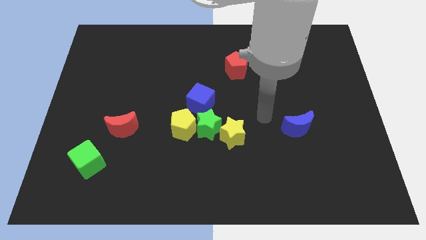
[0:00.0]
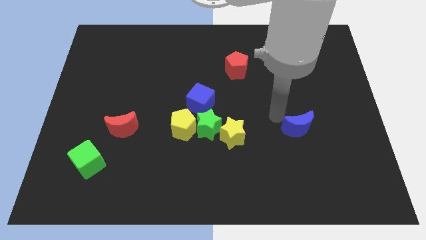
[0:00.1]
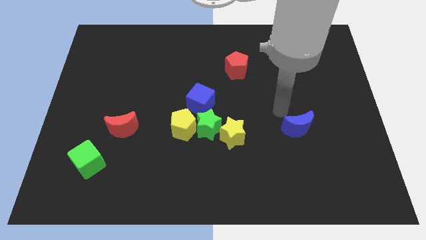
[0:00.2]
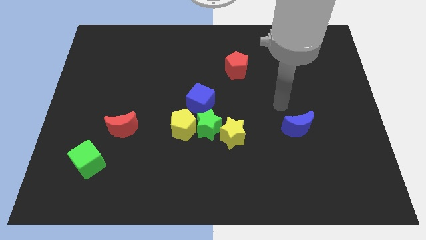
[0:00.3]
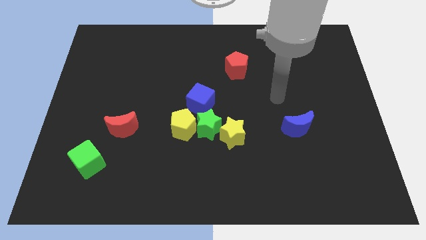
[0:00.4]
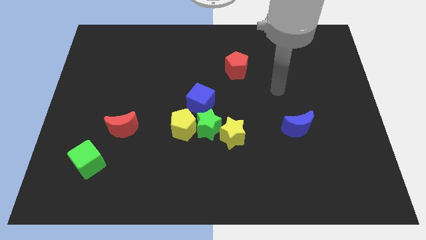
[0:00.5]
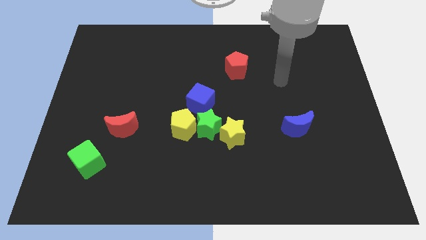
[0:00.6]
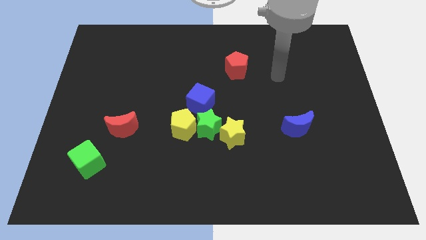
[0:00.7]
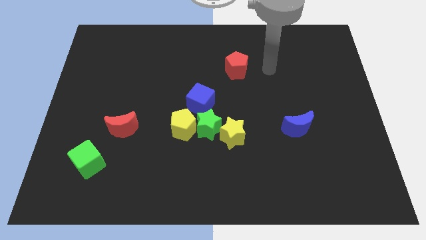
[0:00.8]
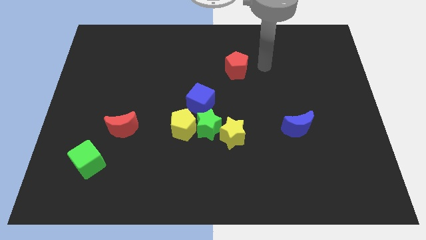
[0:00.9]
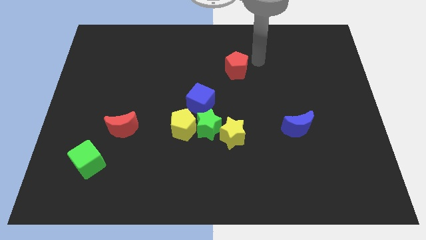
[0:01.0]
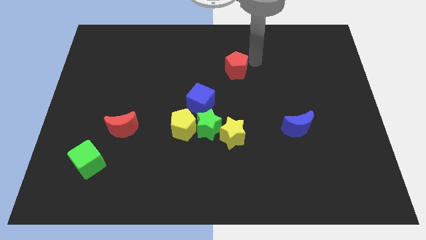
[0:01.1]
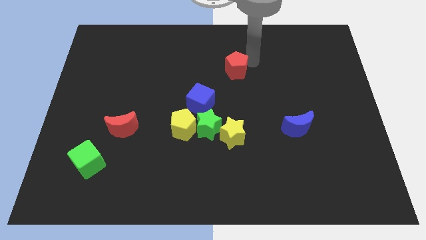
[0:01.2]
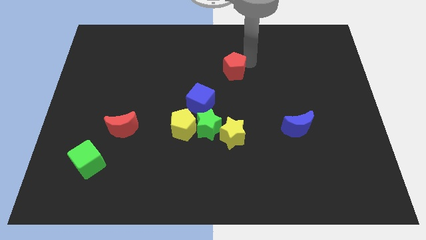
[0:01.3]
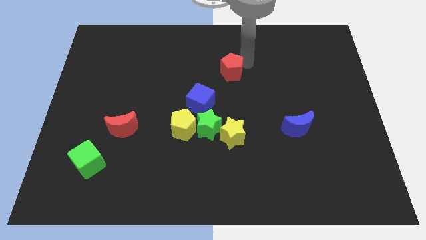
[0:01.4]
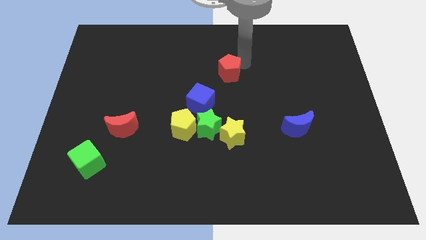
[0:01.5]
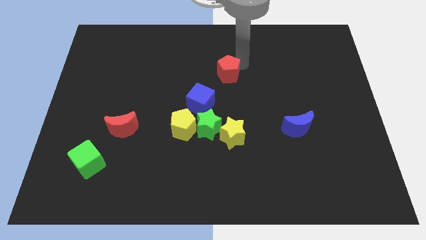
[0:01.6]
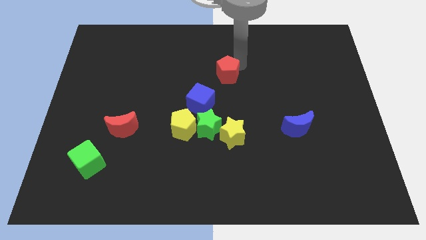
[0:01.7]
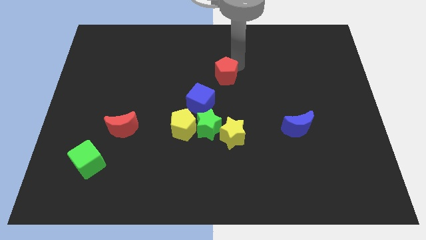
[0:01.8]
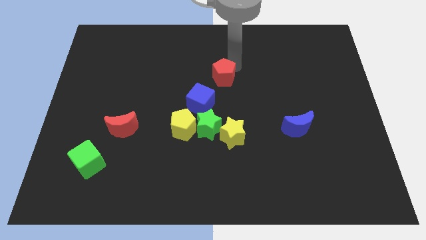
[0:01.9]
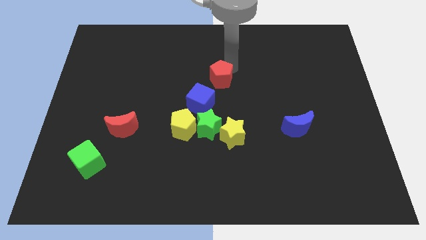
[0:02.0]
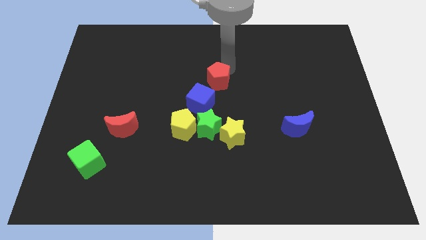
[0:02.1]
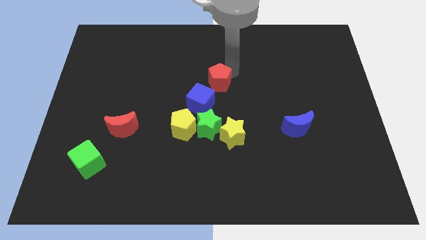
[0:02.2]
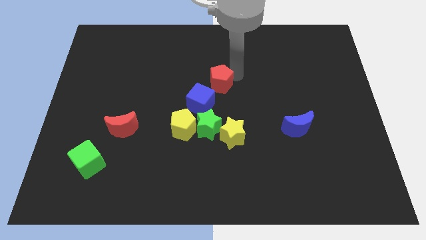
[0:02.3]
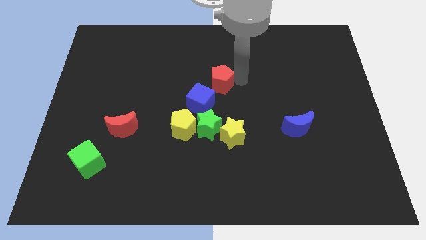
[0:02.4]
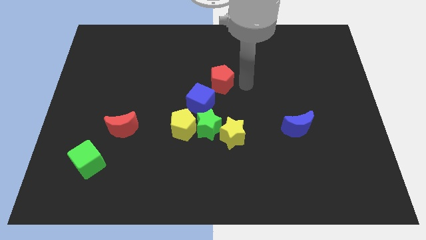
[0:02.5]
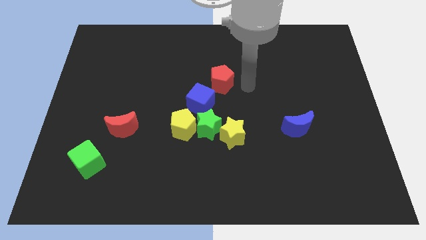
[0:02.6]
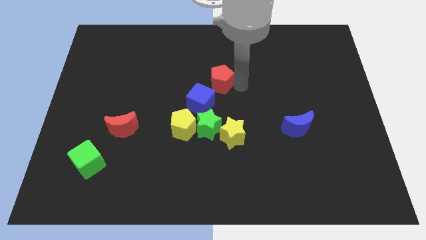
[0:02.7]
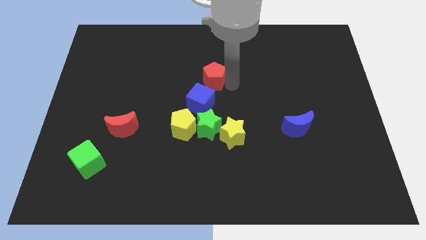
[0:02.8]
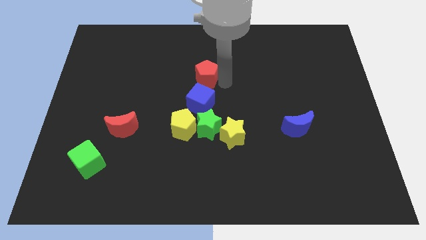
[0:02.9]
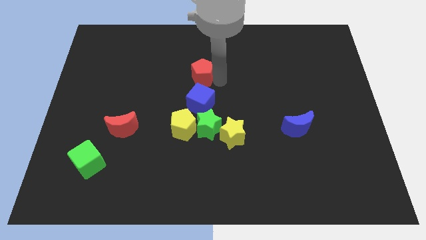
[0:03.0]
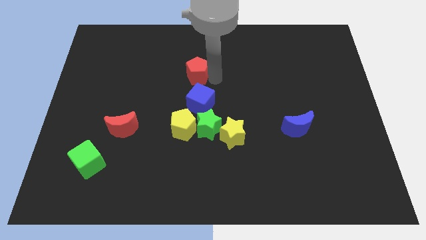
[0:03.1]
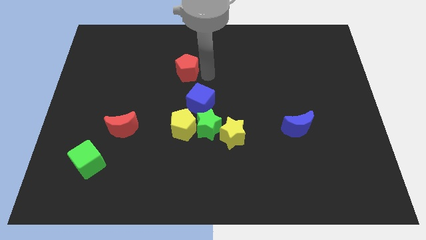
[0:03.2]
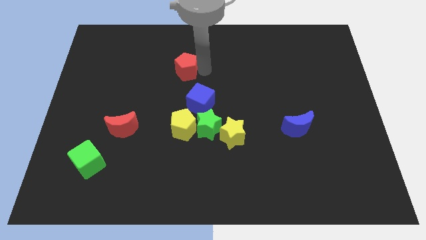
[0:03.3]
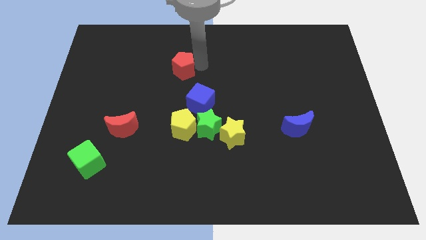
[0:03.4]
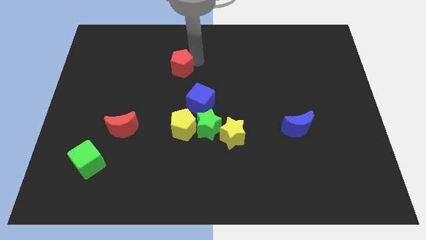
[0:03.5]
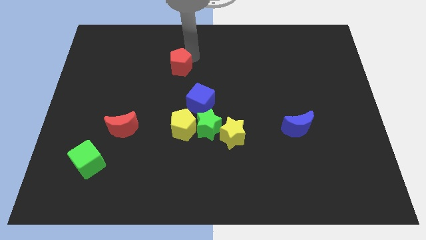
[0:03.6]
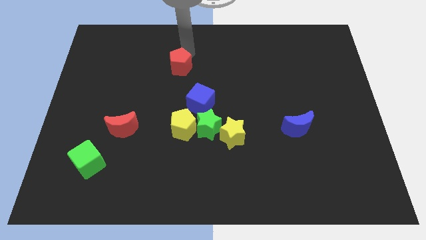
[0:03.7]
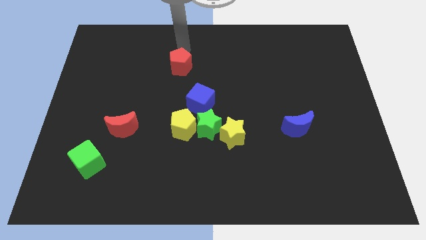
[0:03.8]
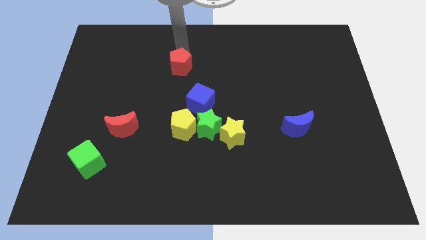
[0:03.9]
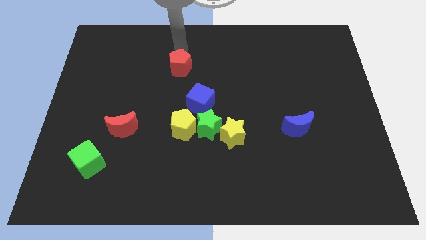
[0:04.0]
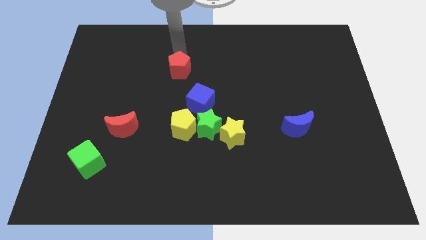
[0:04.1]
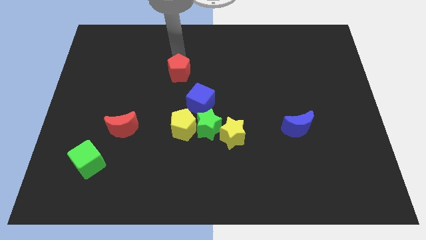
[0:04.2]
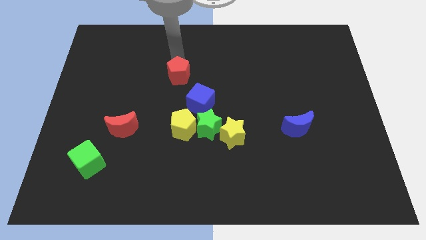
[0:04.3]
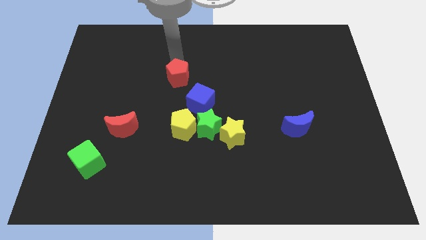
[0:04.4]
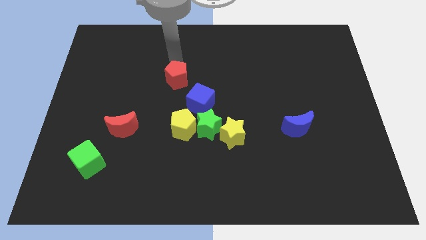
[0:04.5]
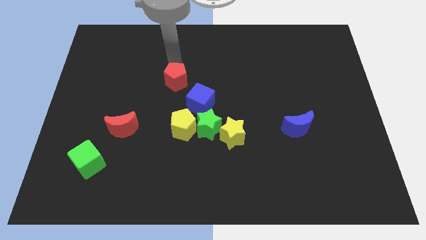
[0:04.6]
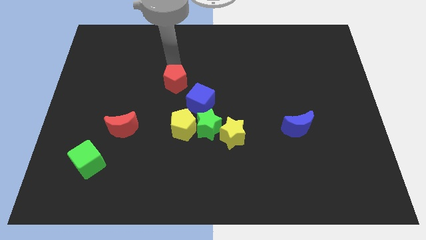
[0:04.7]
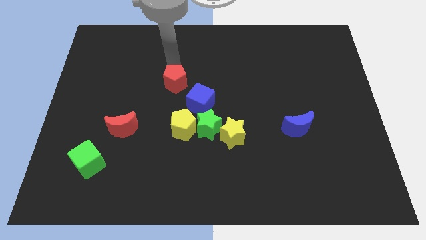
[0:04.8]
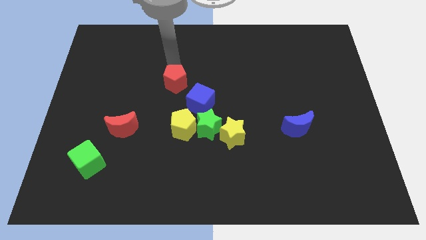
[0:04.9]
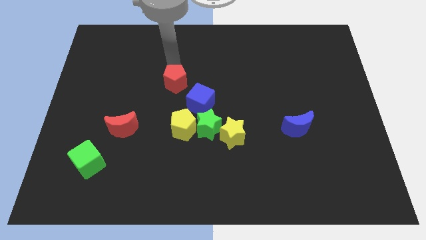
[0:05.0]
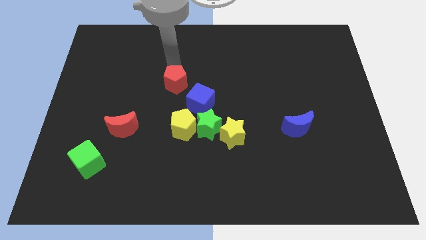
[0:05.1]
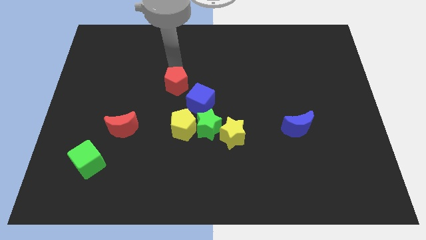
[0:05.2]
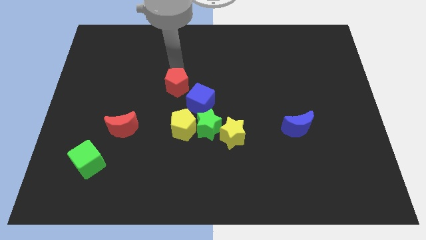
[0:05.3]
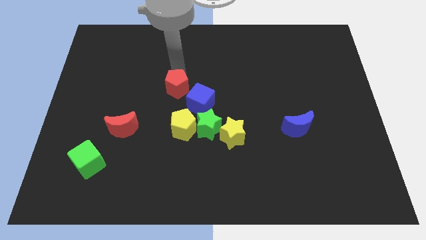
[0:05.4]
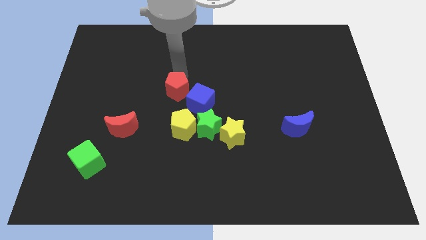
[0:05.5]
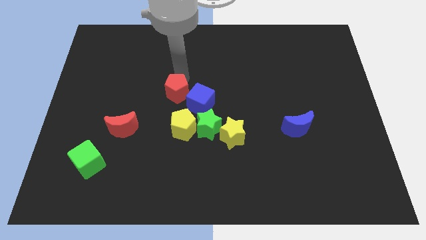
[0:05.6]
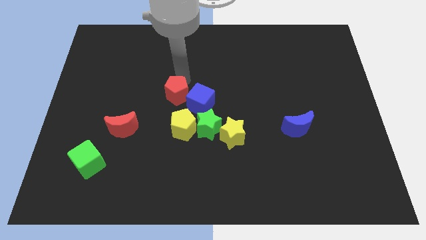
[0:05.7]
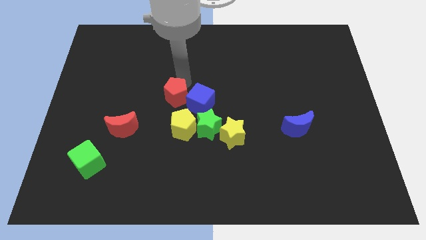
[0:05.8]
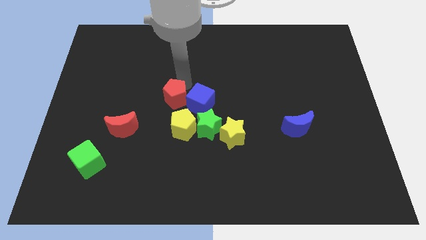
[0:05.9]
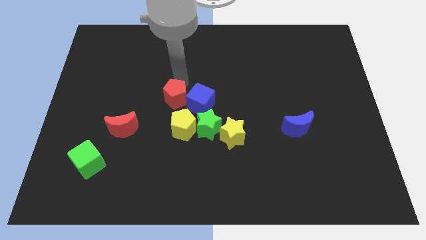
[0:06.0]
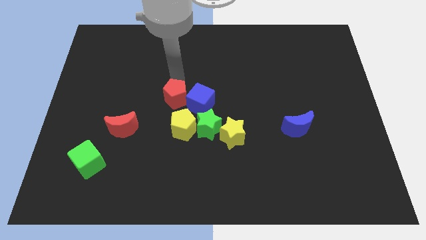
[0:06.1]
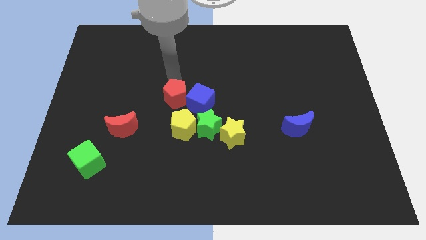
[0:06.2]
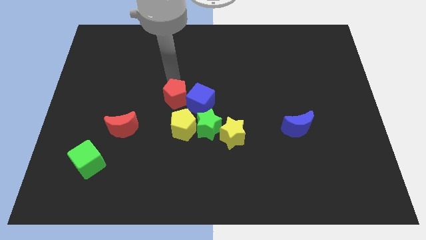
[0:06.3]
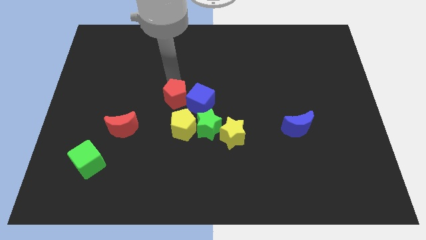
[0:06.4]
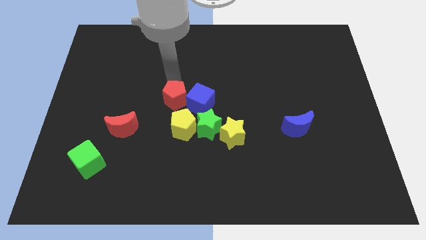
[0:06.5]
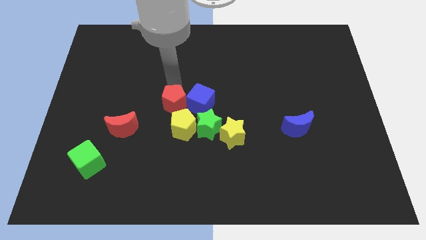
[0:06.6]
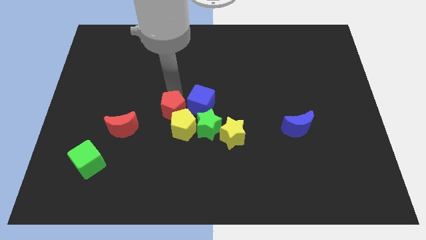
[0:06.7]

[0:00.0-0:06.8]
slide the red pentagon next to the yellow pentagon

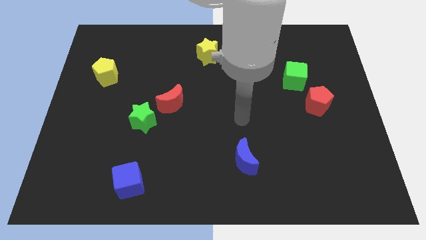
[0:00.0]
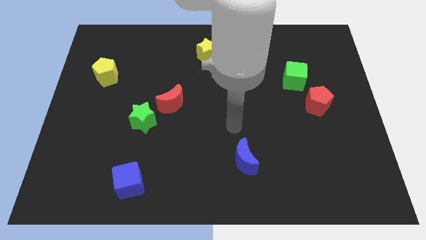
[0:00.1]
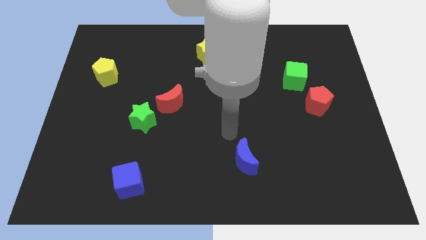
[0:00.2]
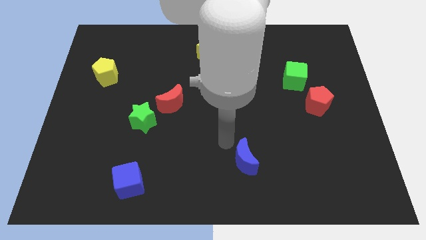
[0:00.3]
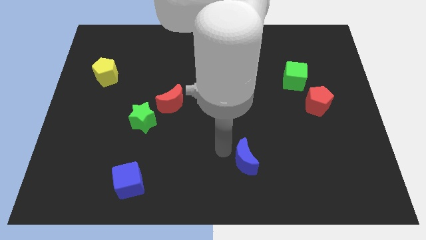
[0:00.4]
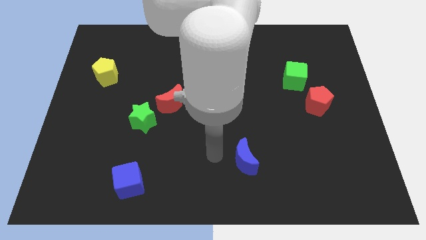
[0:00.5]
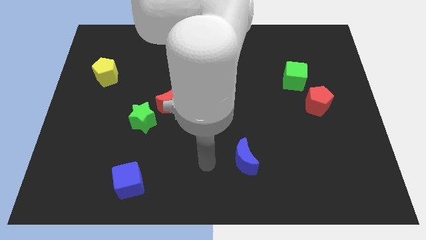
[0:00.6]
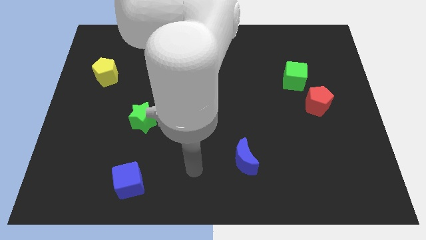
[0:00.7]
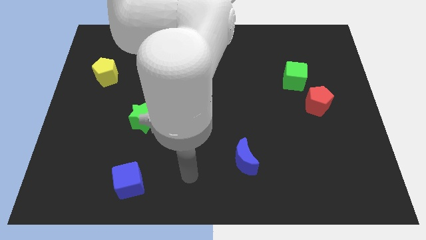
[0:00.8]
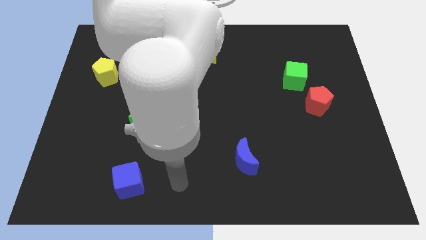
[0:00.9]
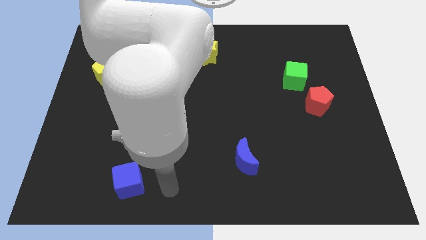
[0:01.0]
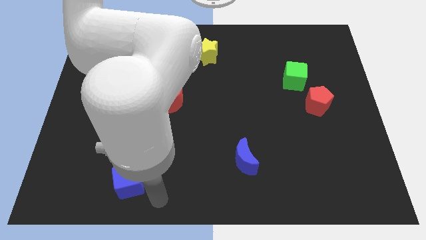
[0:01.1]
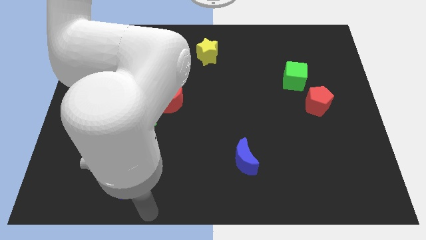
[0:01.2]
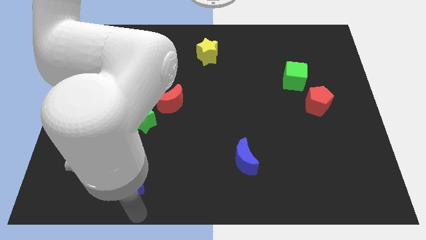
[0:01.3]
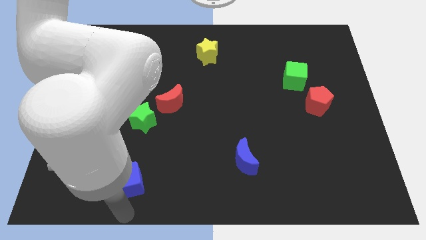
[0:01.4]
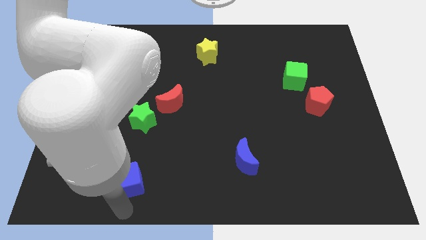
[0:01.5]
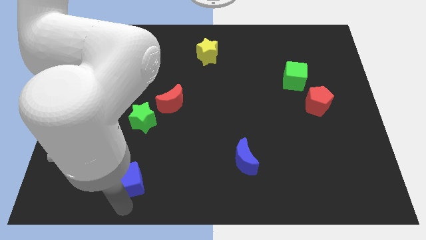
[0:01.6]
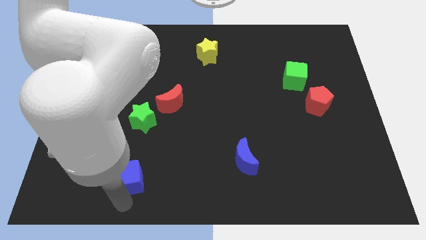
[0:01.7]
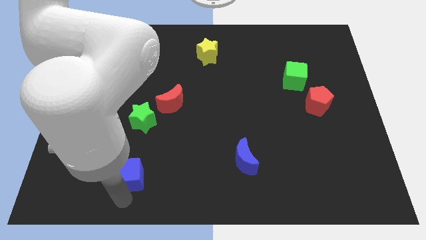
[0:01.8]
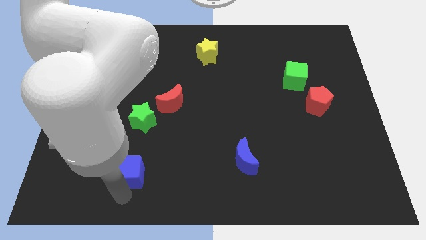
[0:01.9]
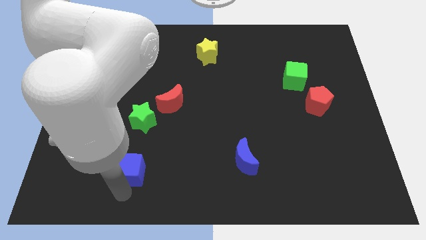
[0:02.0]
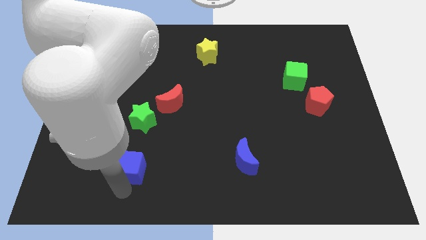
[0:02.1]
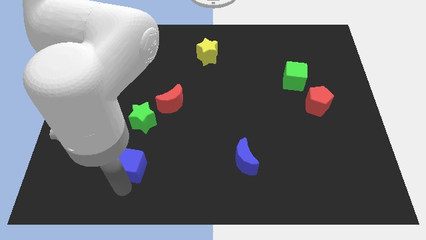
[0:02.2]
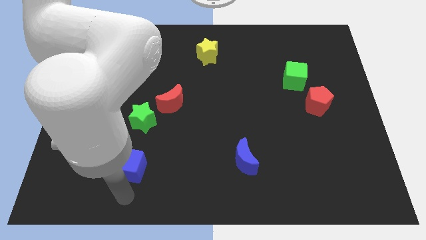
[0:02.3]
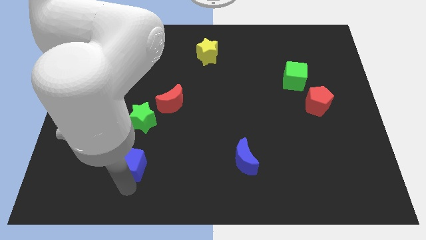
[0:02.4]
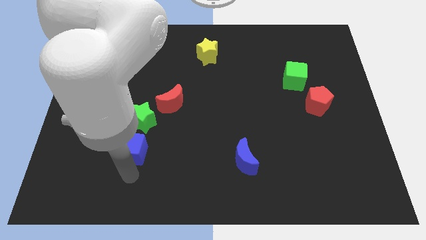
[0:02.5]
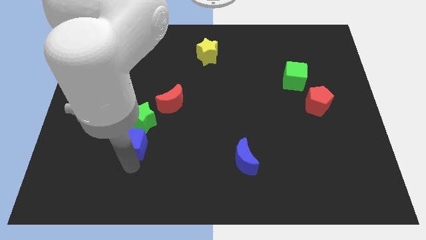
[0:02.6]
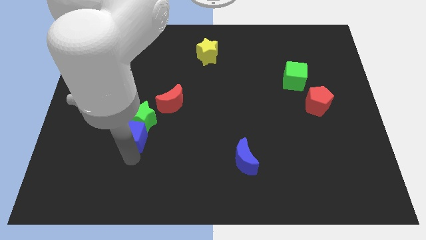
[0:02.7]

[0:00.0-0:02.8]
push the blue cube to the green star
